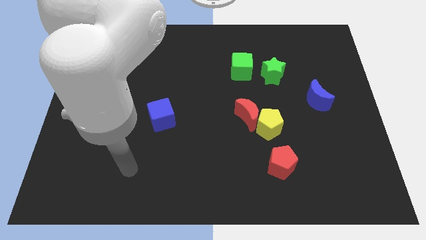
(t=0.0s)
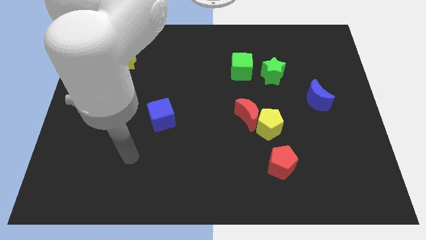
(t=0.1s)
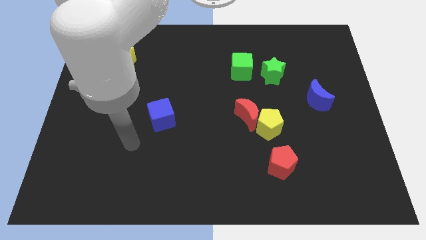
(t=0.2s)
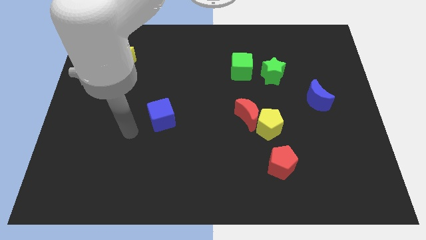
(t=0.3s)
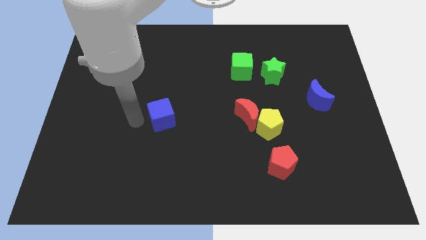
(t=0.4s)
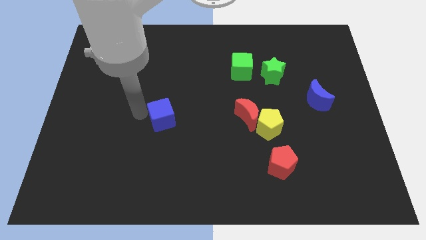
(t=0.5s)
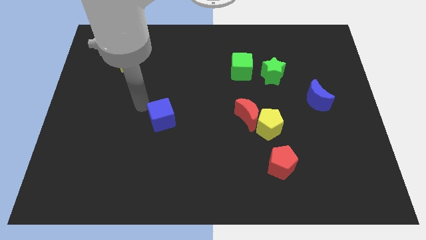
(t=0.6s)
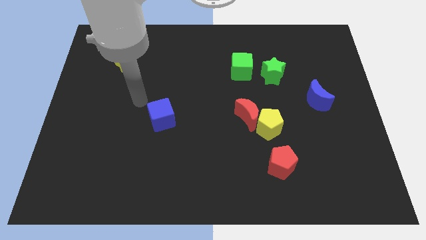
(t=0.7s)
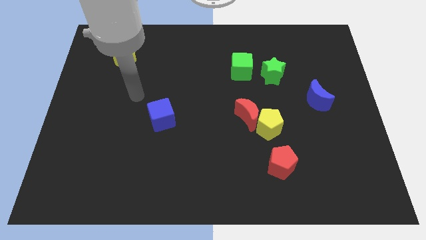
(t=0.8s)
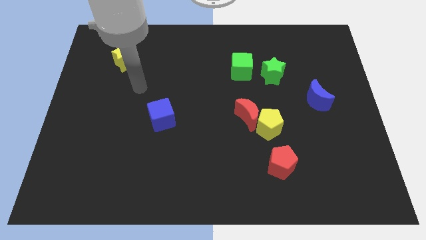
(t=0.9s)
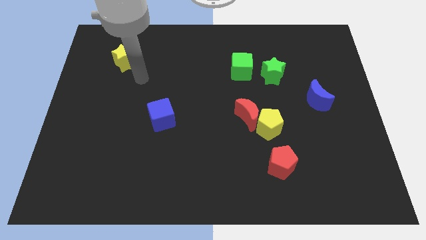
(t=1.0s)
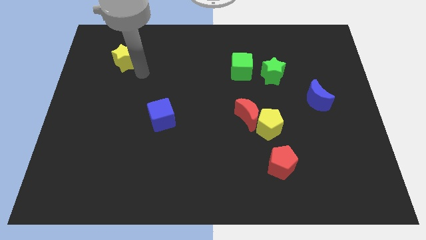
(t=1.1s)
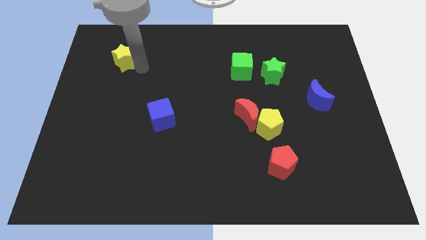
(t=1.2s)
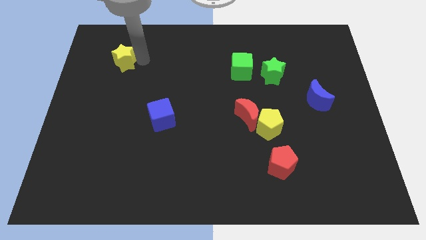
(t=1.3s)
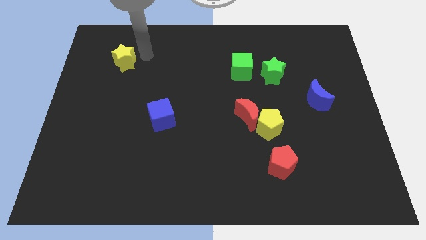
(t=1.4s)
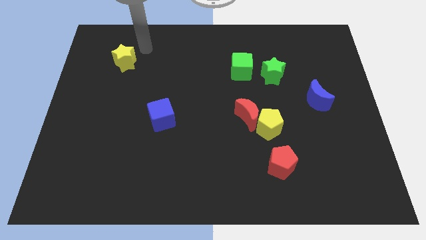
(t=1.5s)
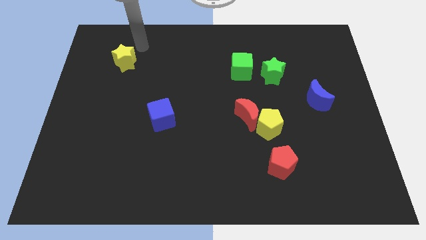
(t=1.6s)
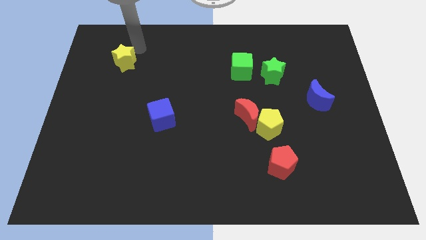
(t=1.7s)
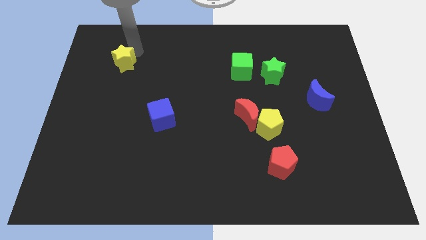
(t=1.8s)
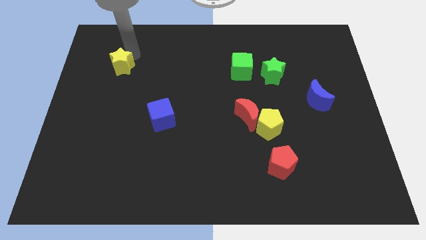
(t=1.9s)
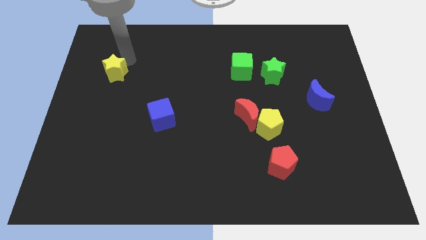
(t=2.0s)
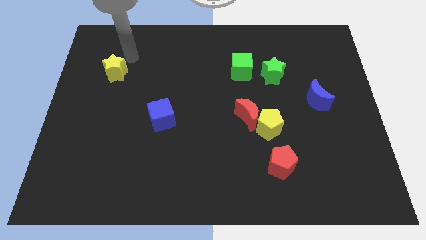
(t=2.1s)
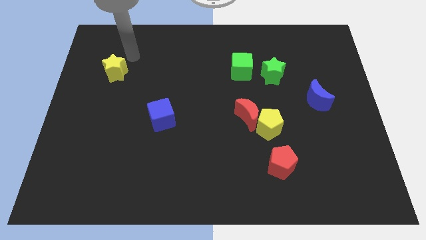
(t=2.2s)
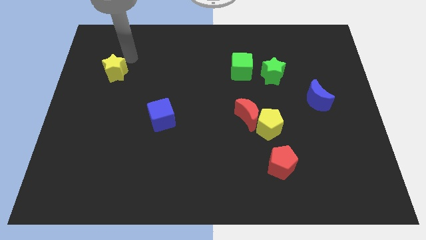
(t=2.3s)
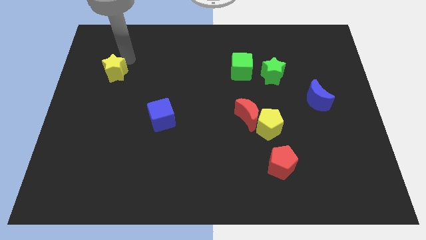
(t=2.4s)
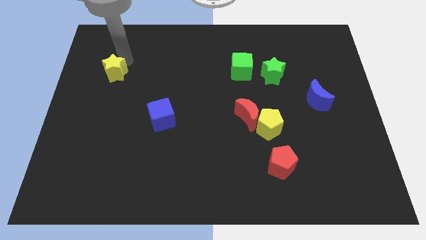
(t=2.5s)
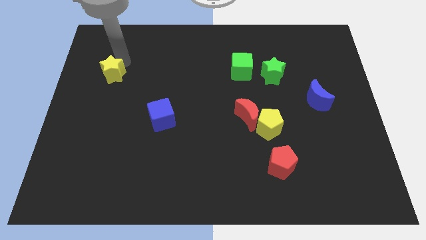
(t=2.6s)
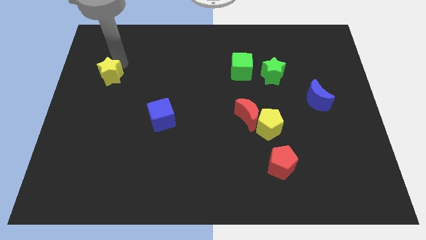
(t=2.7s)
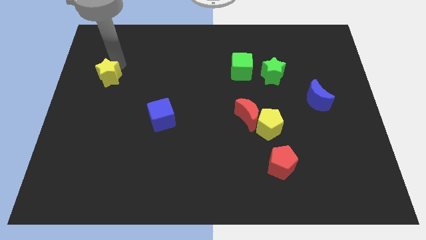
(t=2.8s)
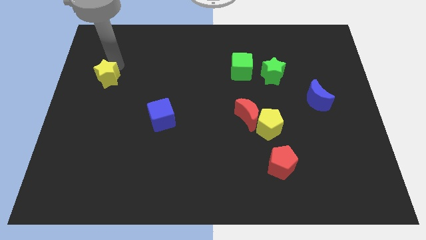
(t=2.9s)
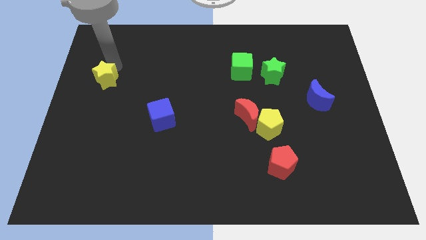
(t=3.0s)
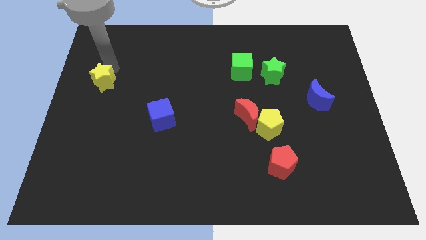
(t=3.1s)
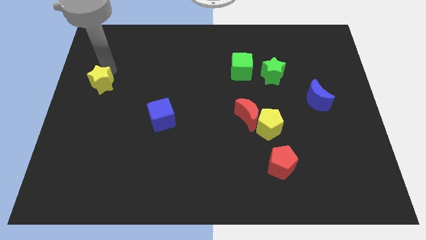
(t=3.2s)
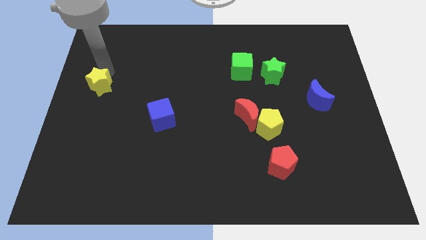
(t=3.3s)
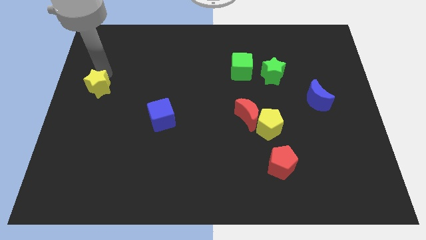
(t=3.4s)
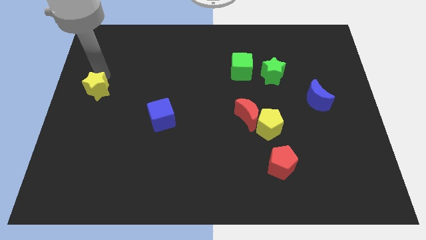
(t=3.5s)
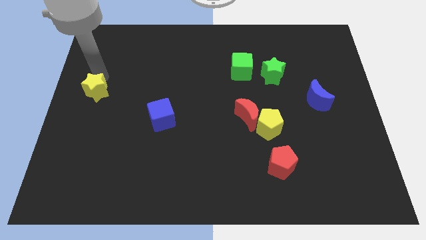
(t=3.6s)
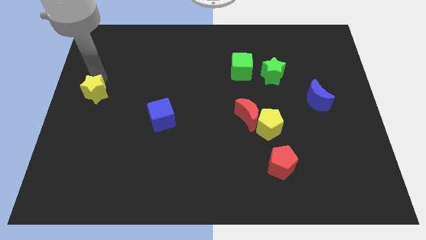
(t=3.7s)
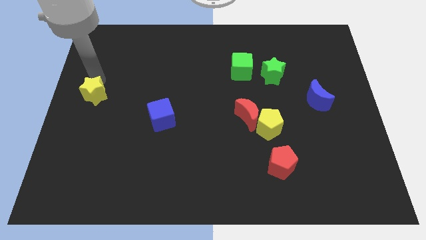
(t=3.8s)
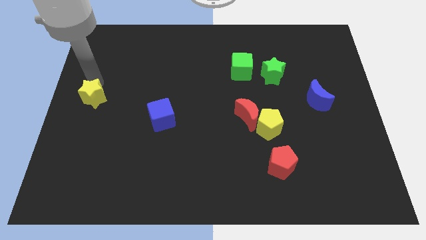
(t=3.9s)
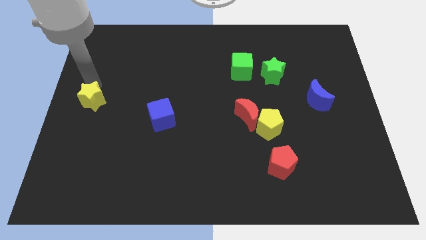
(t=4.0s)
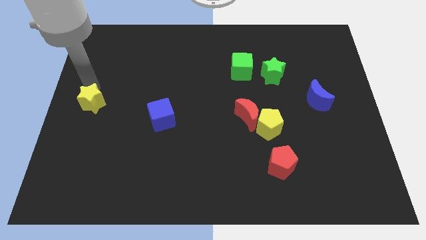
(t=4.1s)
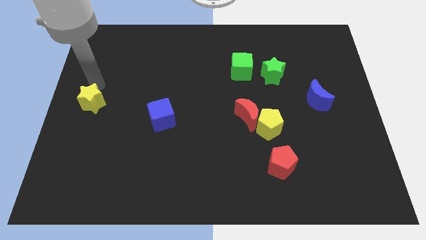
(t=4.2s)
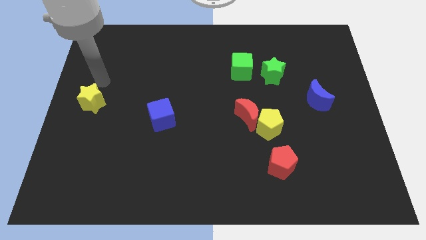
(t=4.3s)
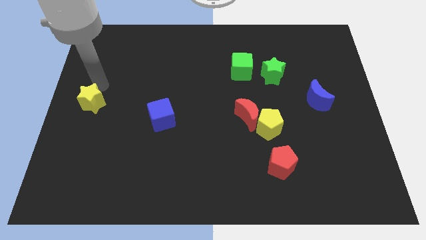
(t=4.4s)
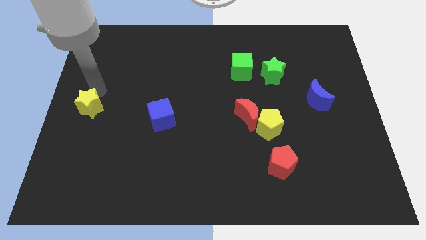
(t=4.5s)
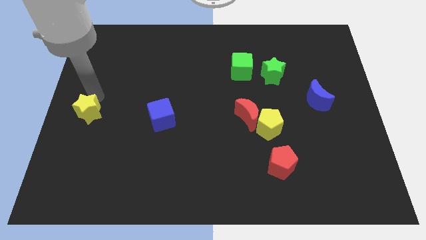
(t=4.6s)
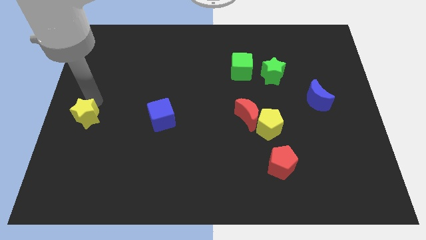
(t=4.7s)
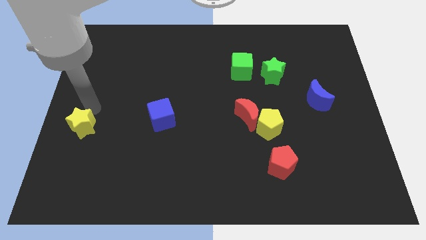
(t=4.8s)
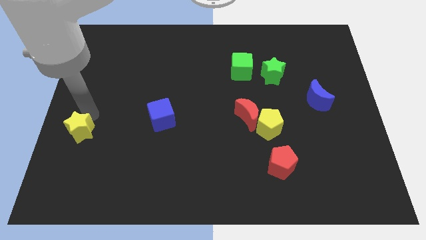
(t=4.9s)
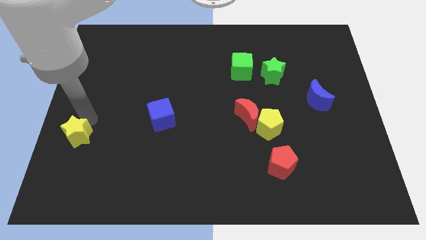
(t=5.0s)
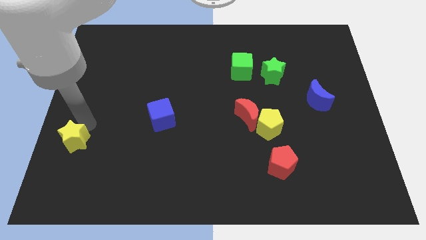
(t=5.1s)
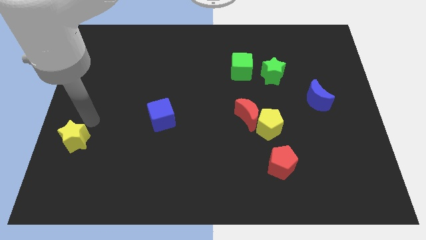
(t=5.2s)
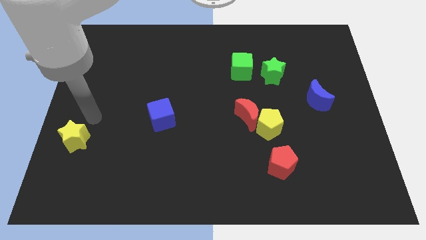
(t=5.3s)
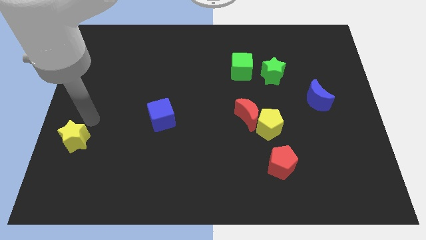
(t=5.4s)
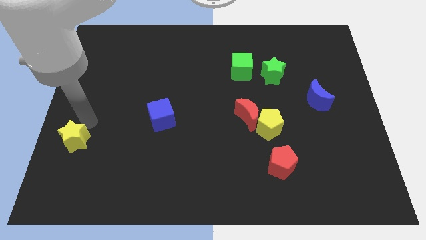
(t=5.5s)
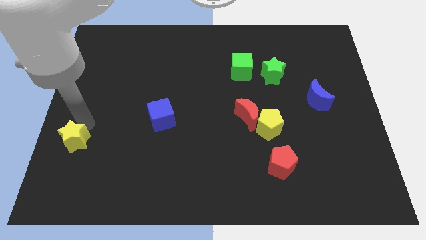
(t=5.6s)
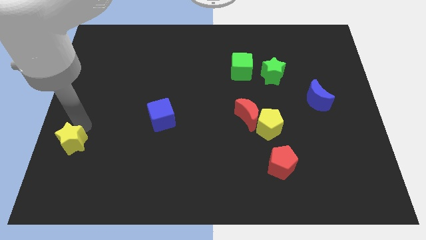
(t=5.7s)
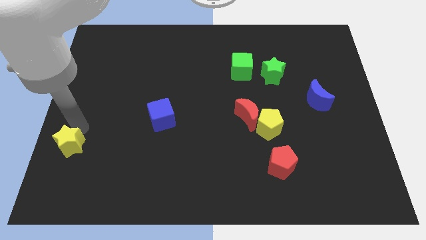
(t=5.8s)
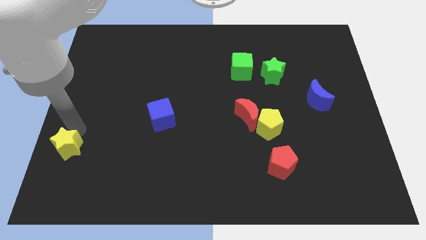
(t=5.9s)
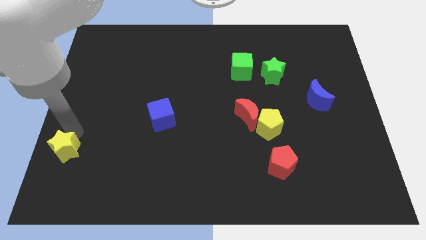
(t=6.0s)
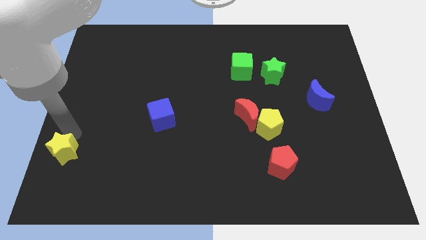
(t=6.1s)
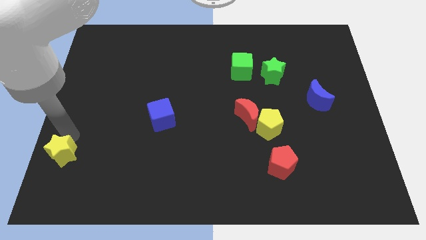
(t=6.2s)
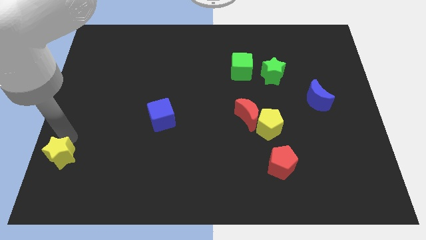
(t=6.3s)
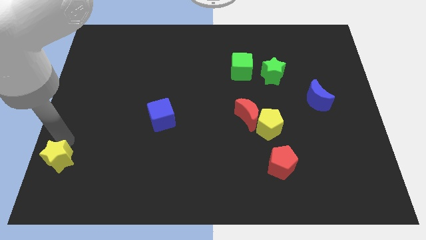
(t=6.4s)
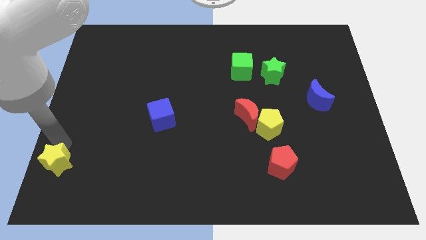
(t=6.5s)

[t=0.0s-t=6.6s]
push the yellow star to the bottom left
